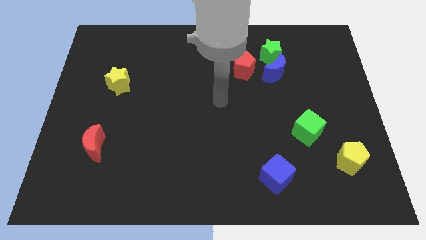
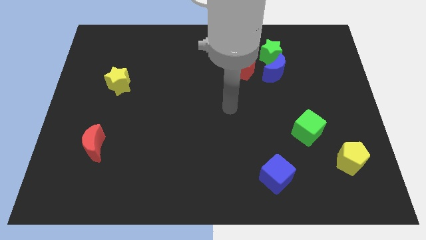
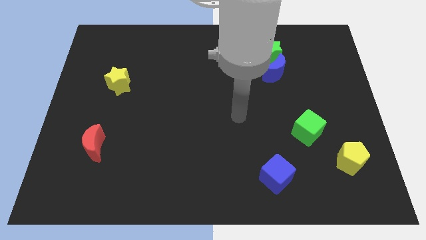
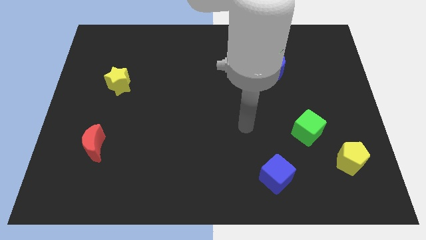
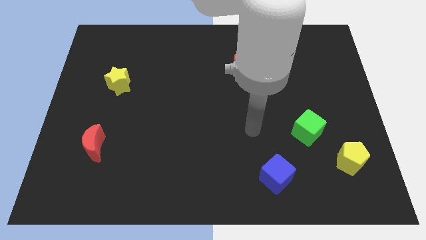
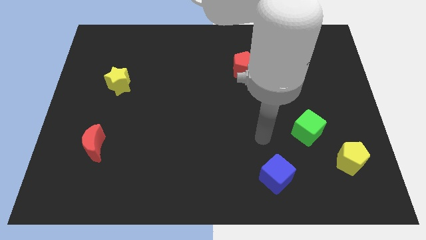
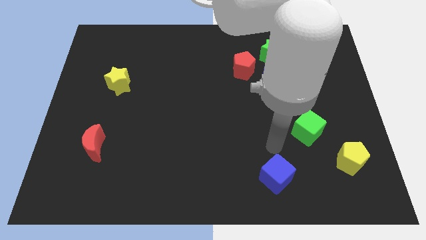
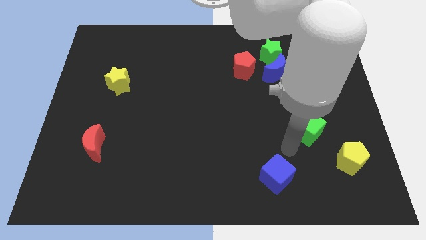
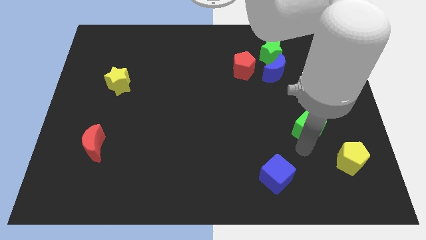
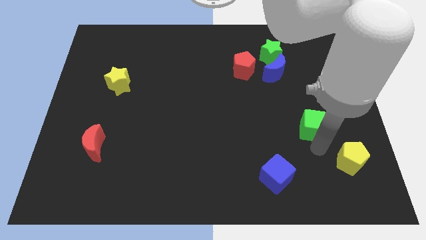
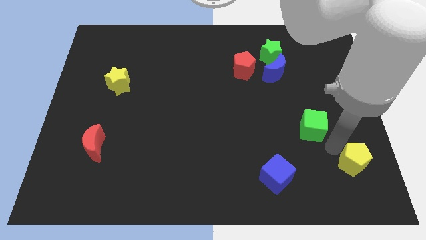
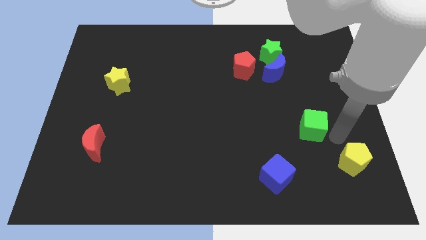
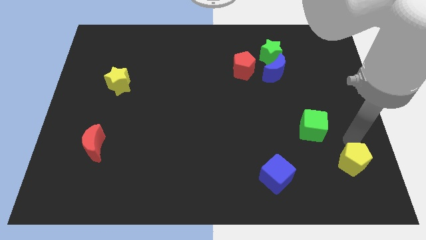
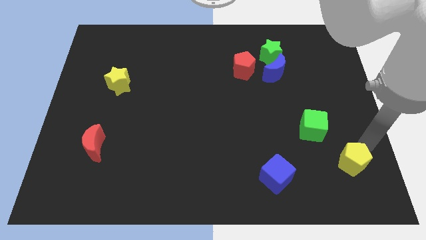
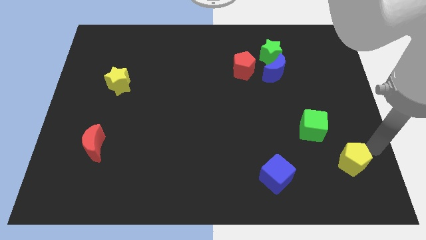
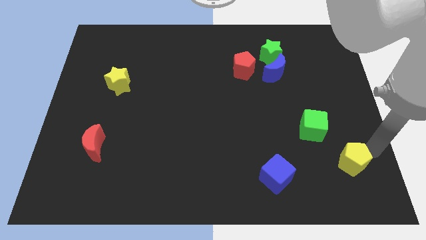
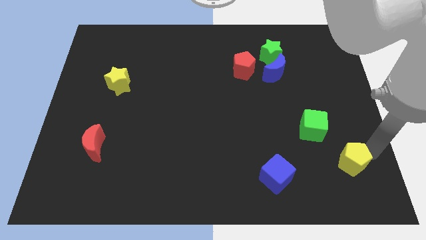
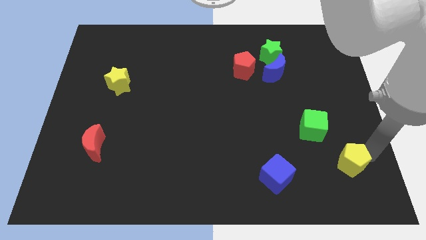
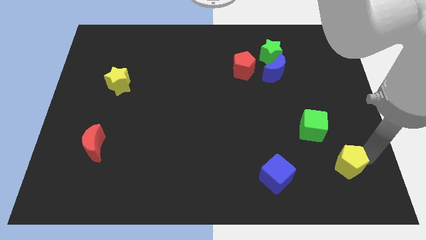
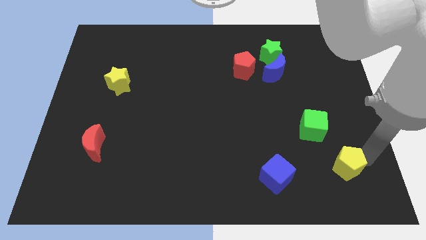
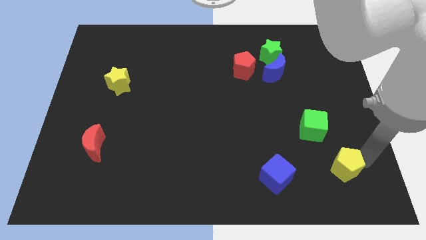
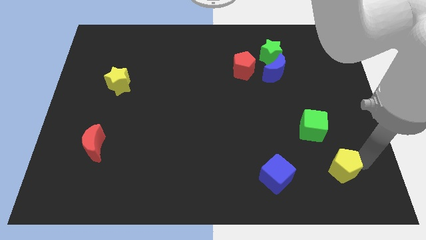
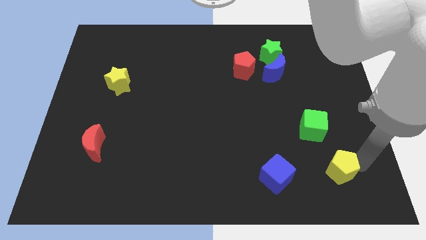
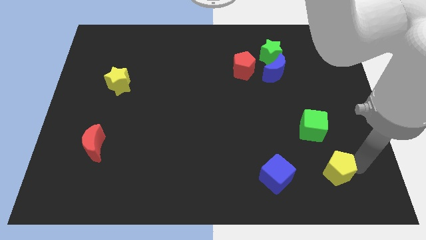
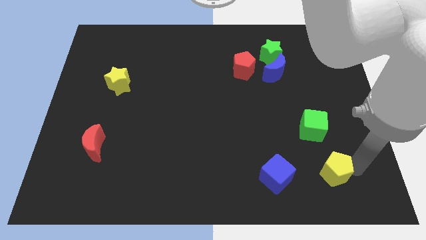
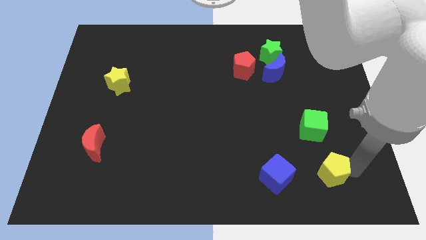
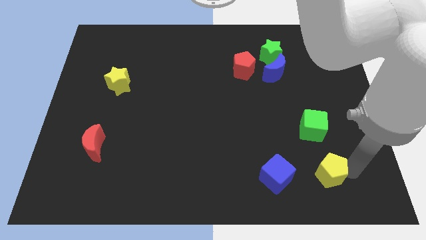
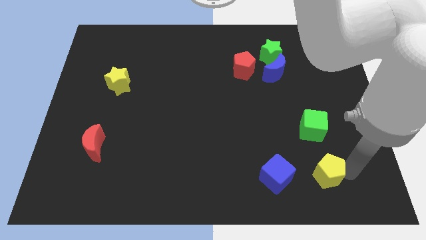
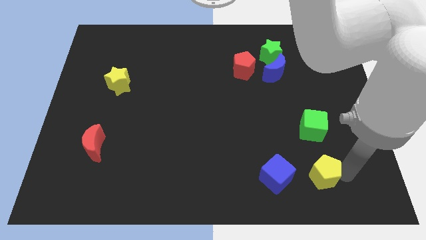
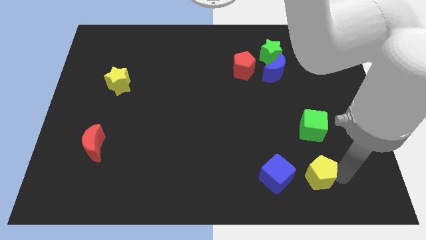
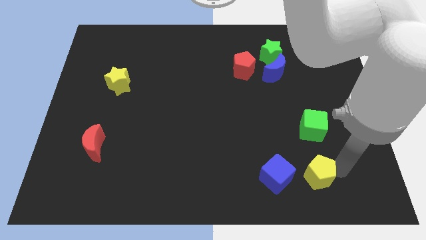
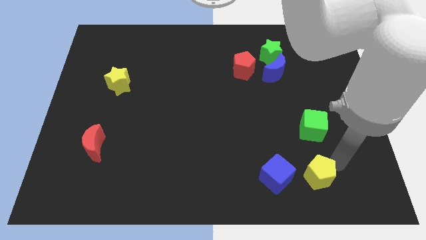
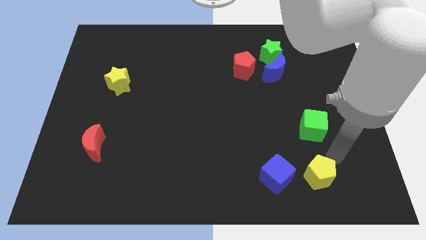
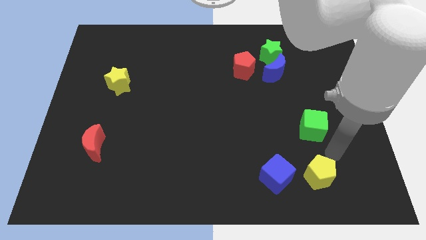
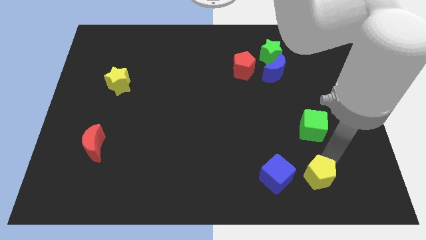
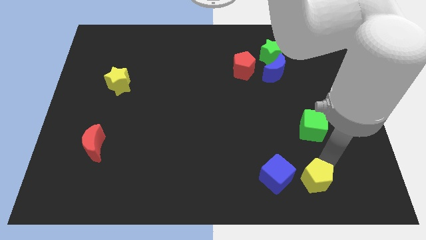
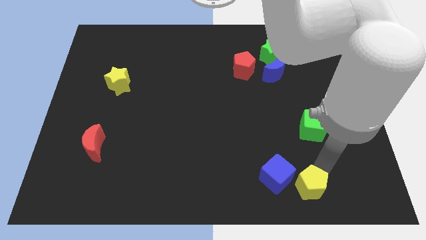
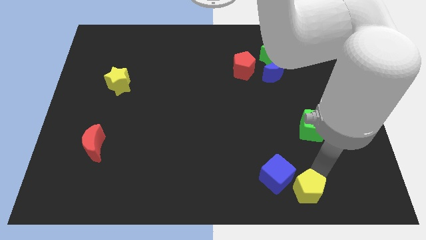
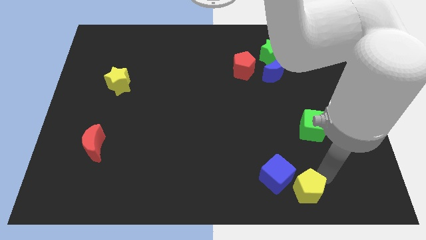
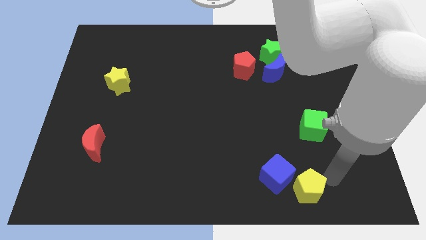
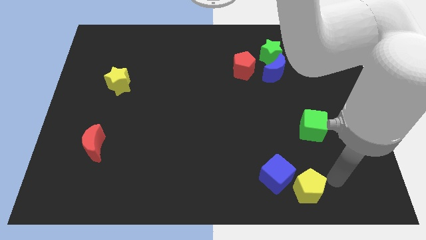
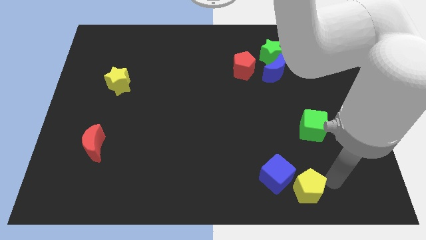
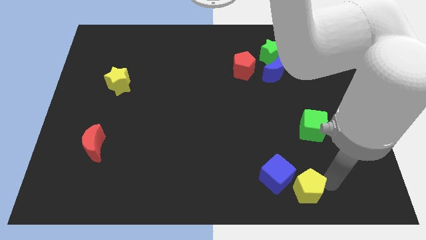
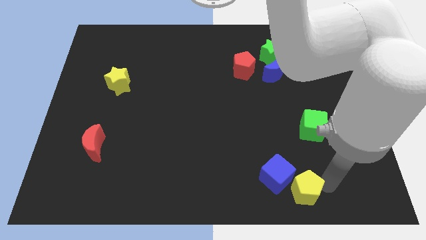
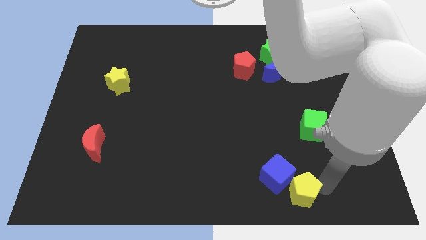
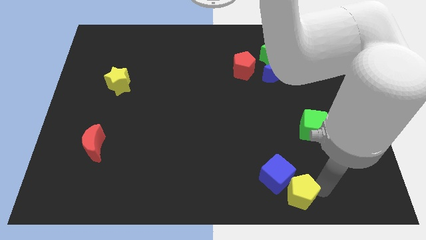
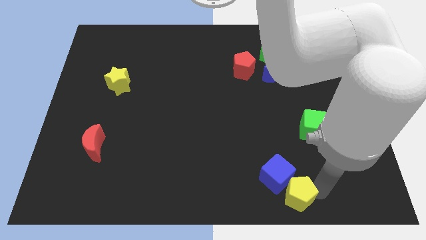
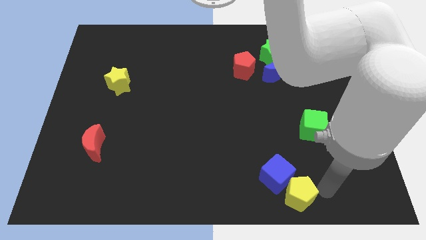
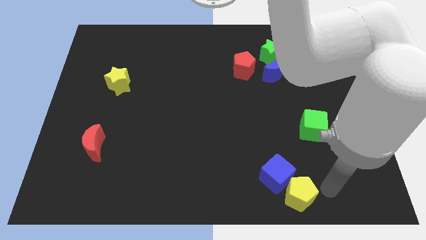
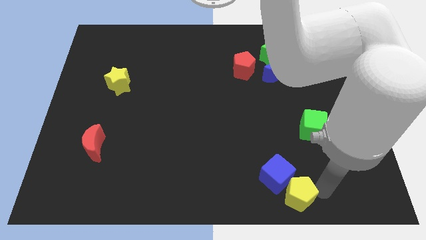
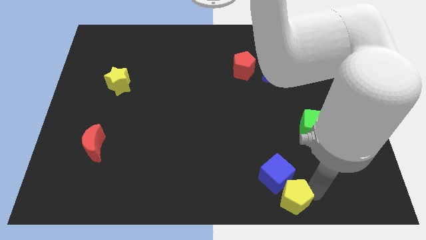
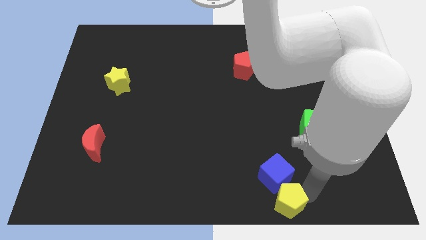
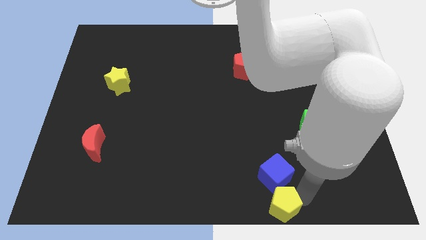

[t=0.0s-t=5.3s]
move the yellow pentagon to the bottom
